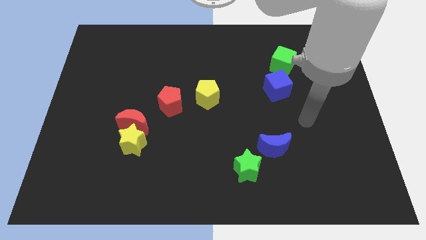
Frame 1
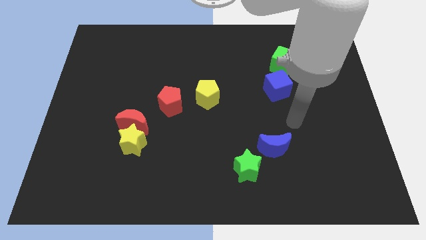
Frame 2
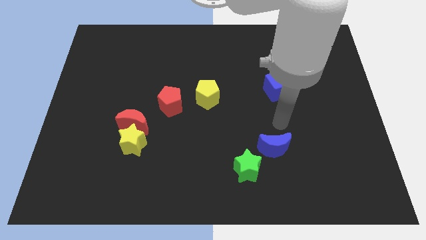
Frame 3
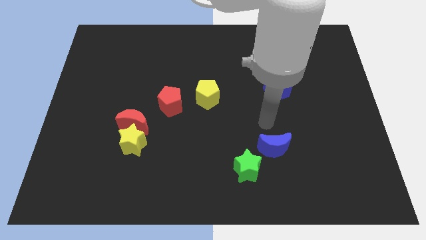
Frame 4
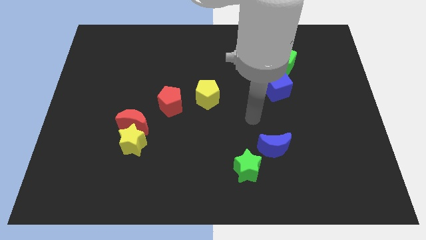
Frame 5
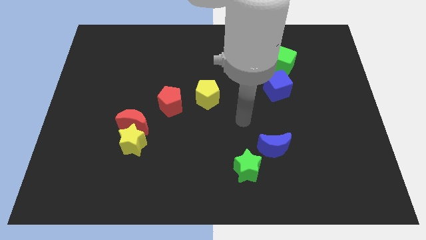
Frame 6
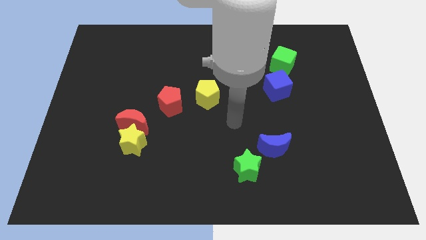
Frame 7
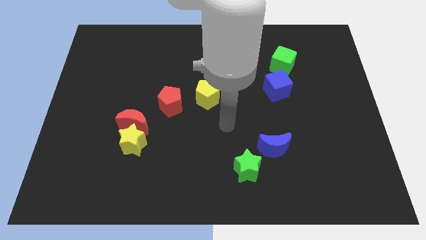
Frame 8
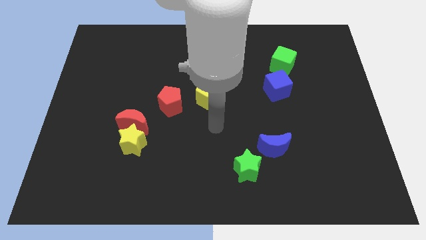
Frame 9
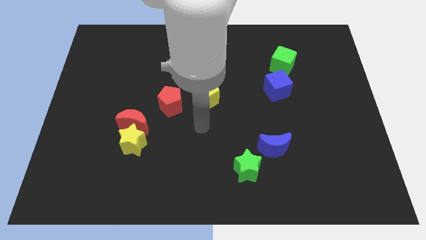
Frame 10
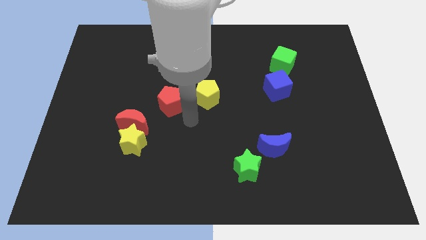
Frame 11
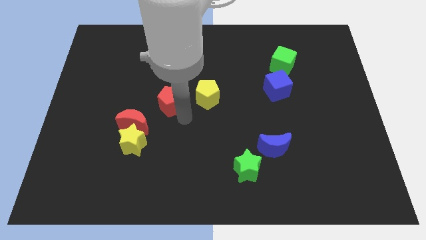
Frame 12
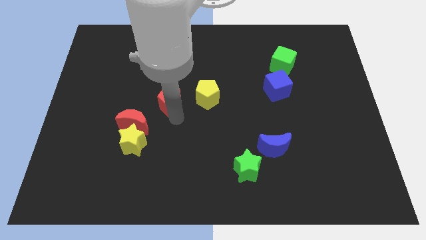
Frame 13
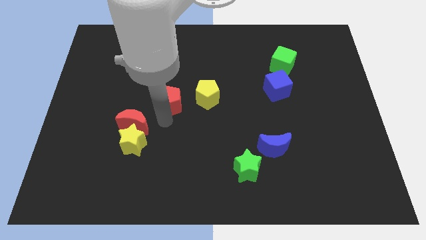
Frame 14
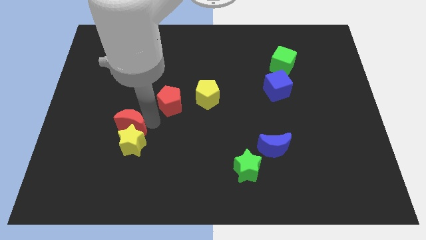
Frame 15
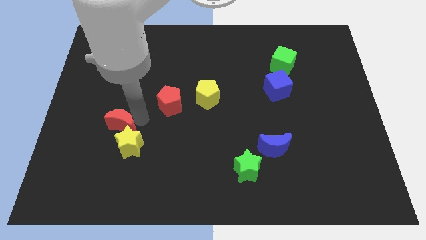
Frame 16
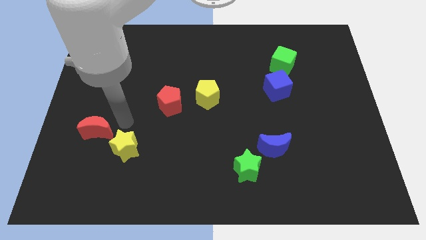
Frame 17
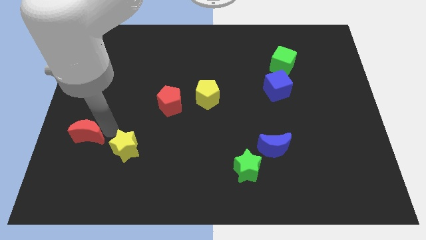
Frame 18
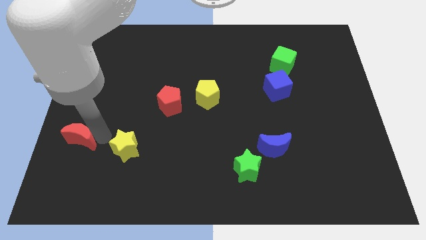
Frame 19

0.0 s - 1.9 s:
pull the yellow star apart from the red moon

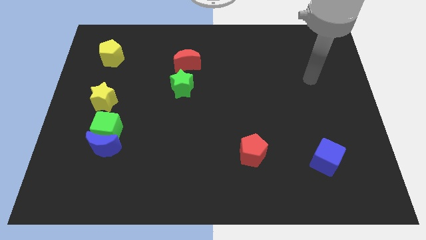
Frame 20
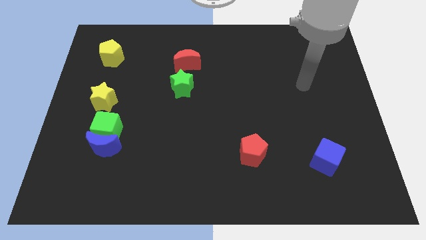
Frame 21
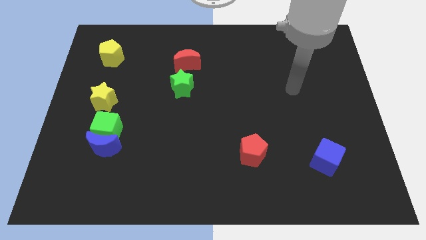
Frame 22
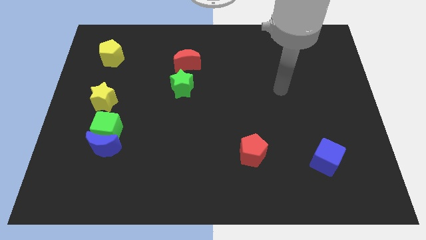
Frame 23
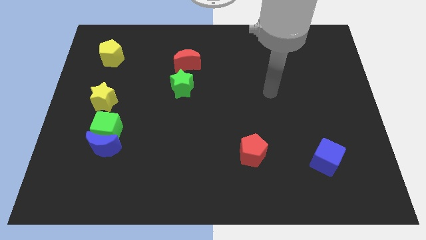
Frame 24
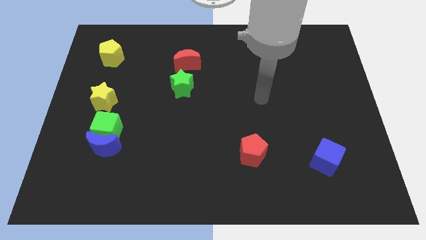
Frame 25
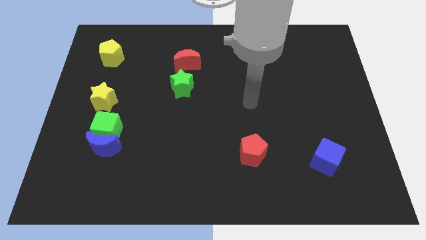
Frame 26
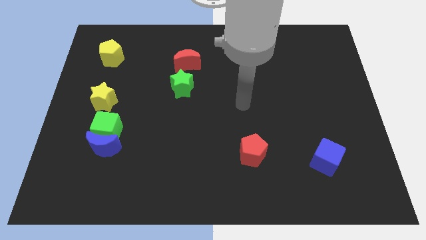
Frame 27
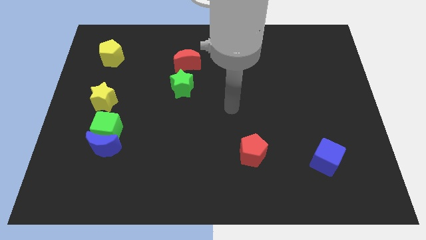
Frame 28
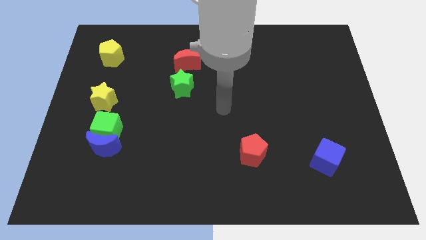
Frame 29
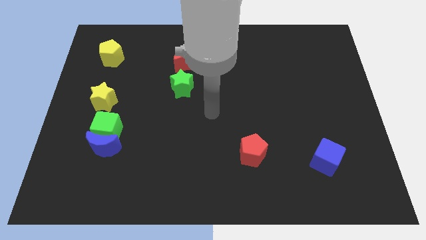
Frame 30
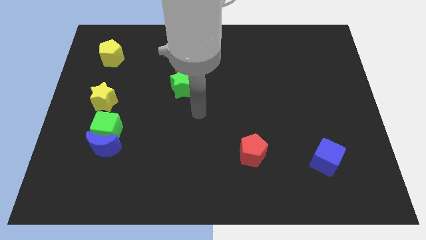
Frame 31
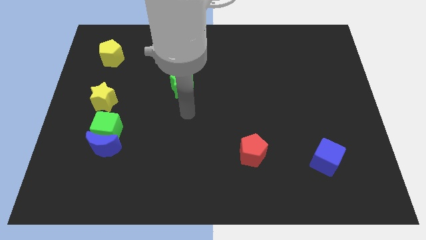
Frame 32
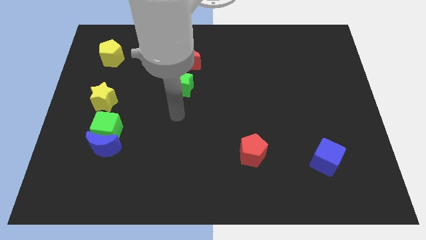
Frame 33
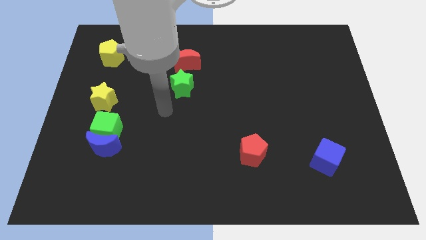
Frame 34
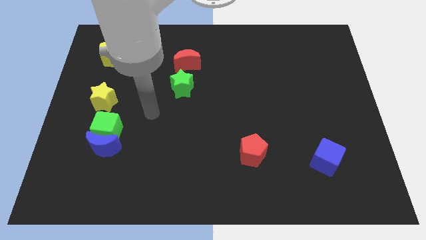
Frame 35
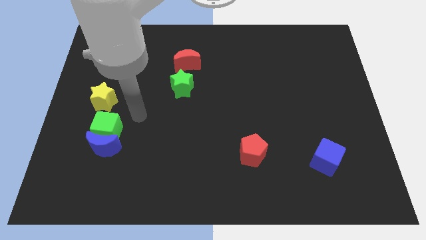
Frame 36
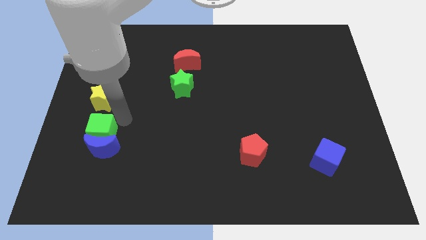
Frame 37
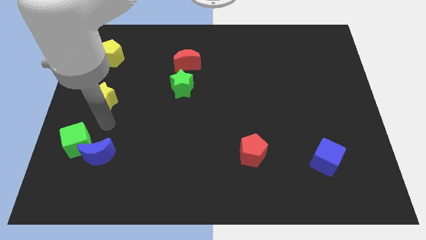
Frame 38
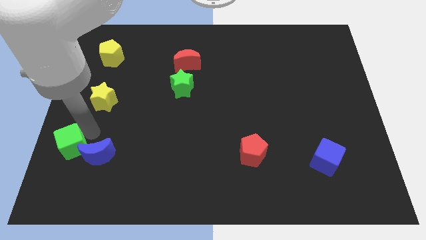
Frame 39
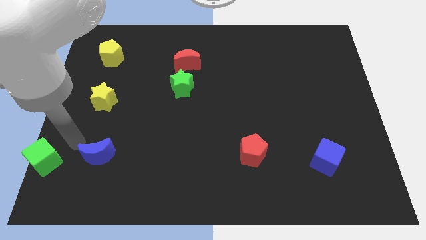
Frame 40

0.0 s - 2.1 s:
separate the blue moon from the green cube

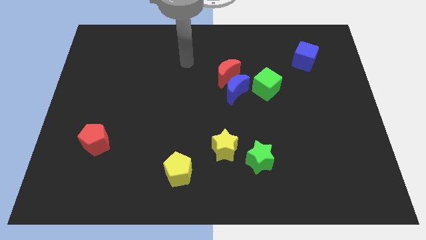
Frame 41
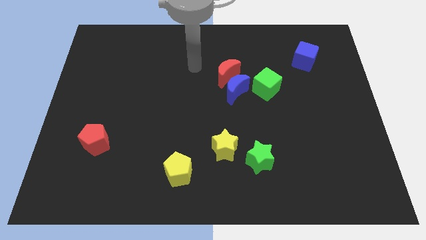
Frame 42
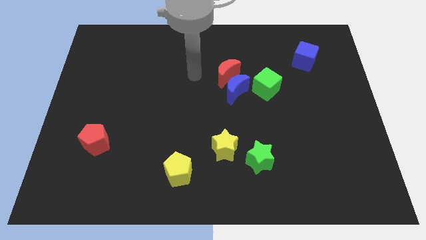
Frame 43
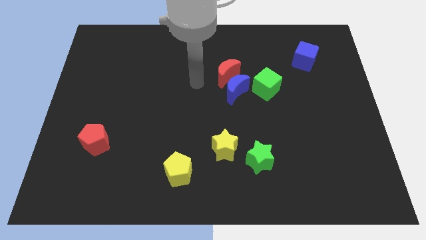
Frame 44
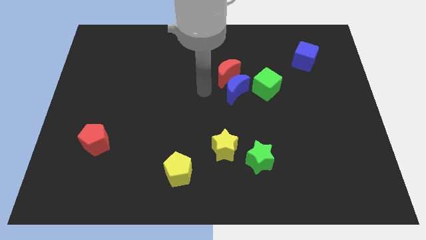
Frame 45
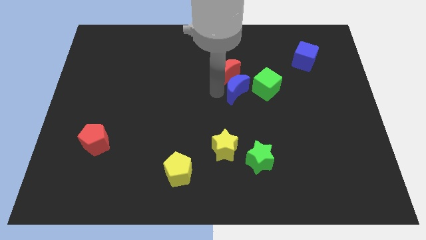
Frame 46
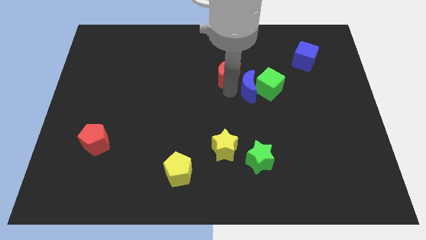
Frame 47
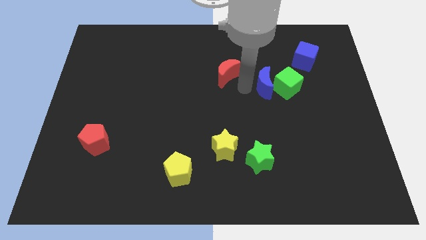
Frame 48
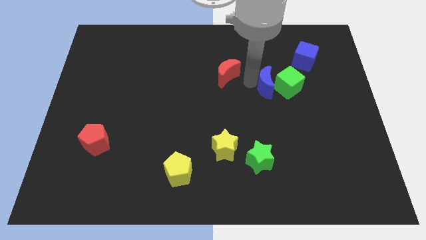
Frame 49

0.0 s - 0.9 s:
separate the red moon from the blue moon

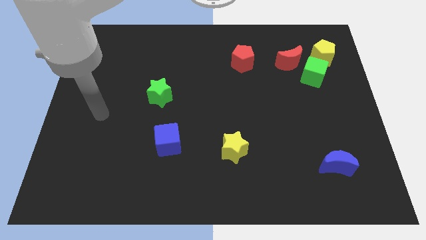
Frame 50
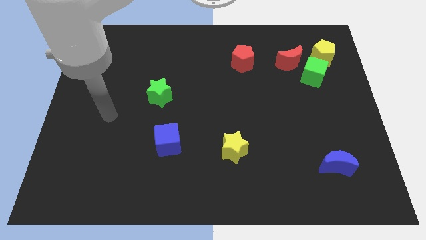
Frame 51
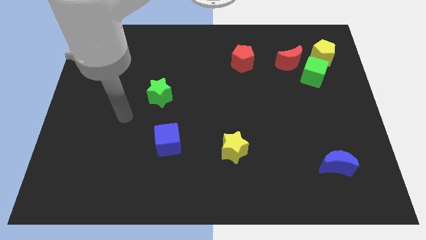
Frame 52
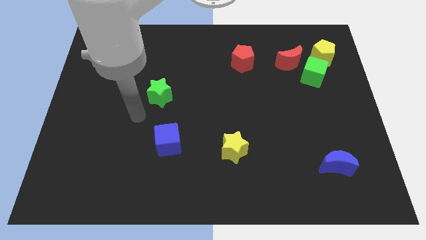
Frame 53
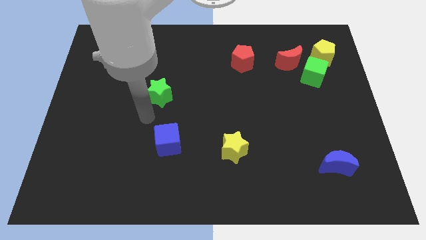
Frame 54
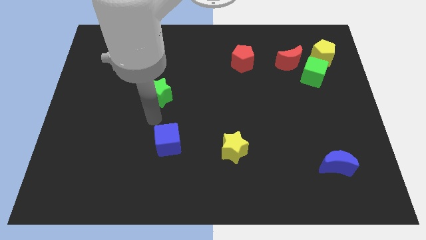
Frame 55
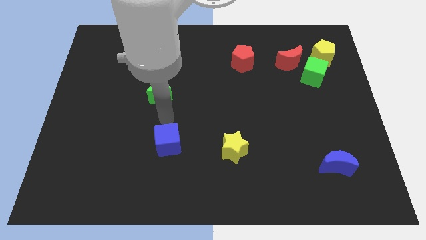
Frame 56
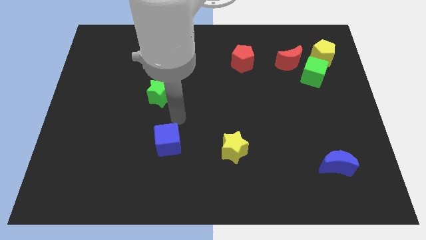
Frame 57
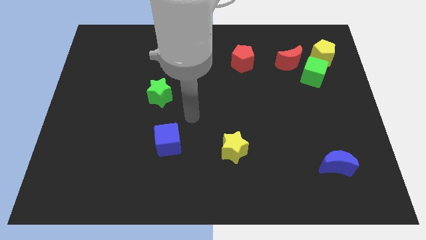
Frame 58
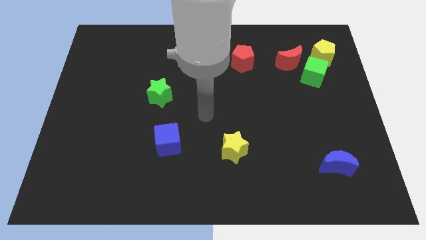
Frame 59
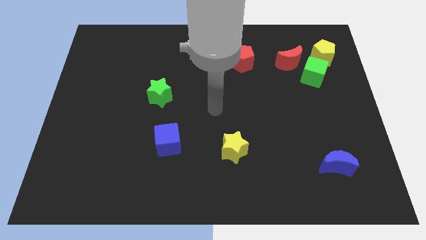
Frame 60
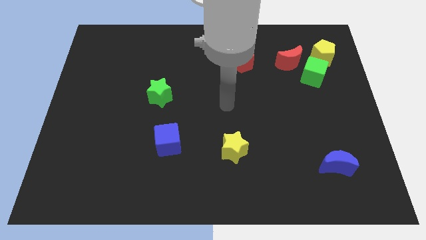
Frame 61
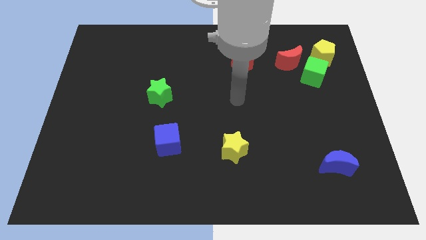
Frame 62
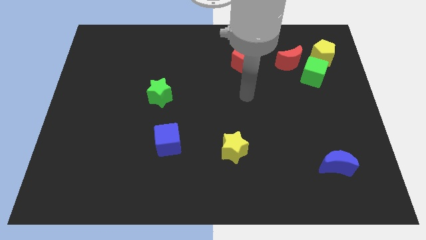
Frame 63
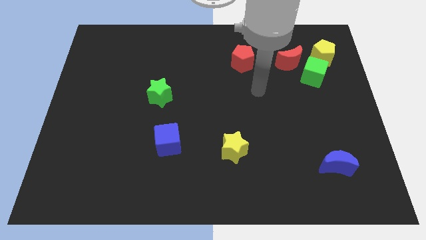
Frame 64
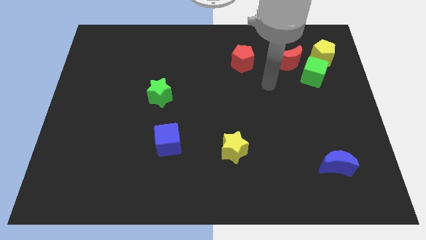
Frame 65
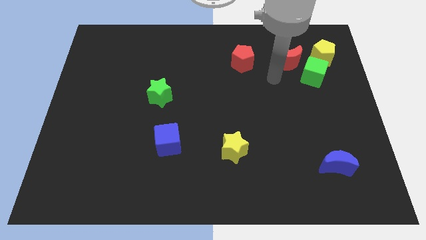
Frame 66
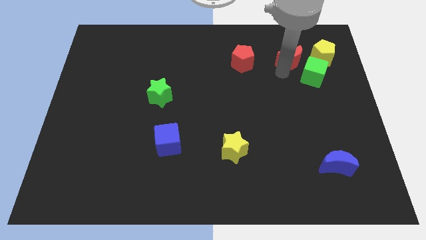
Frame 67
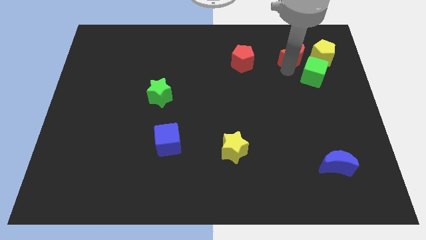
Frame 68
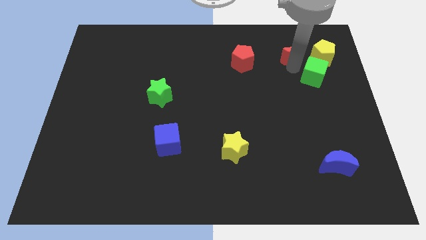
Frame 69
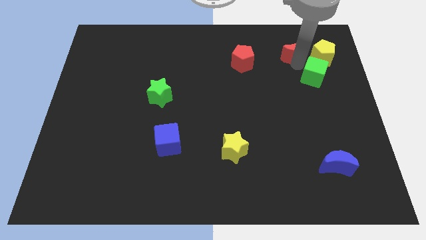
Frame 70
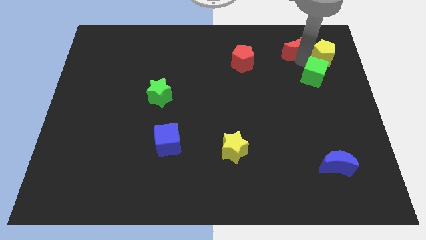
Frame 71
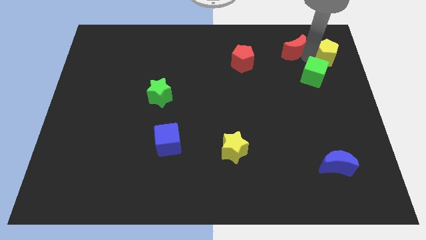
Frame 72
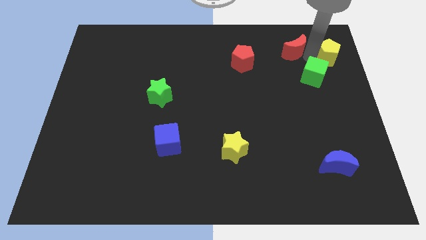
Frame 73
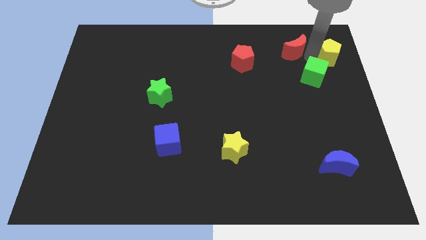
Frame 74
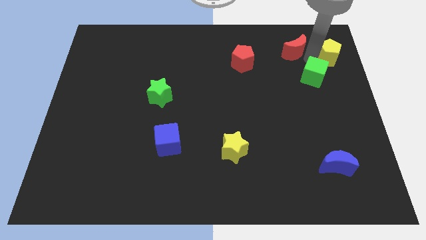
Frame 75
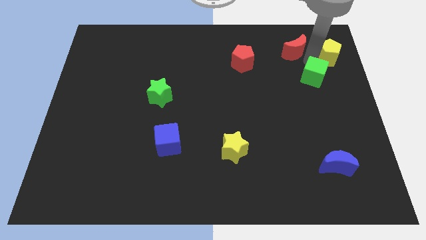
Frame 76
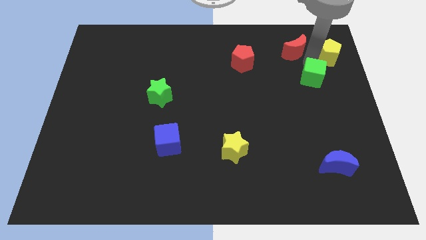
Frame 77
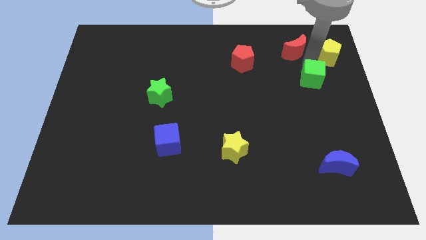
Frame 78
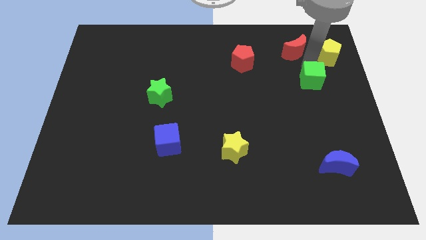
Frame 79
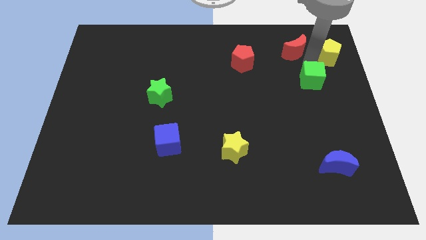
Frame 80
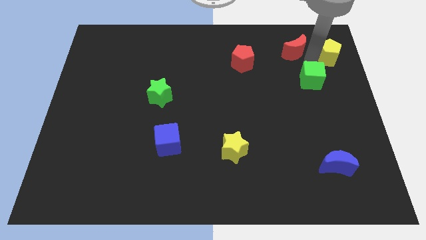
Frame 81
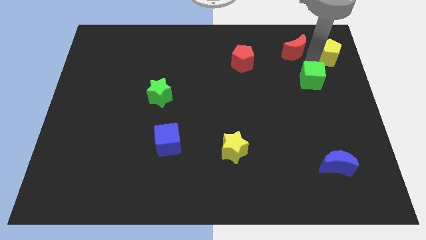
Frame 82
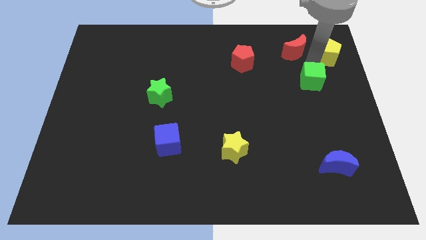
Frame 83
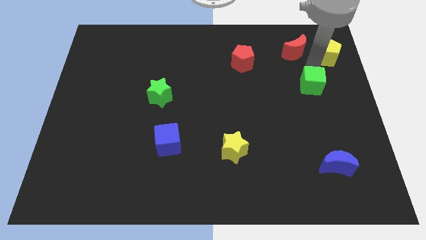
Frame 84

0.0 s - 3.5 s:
pull the green cube apart from the red moon and yellow pentagon

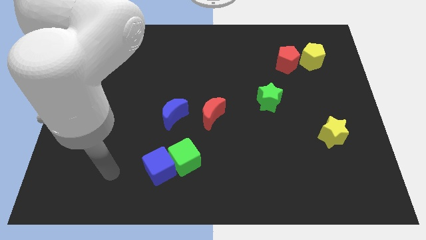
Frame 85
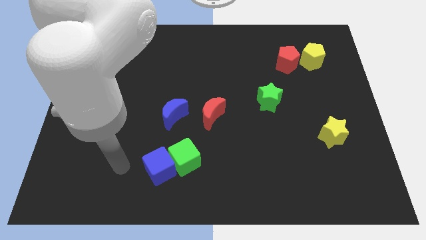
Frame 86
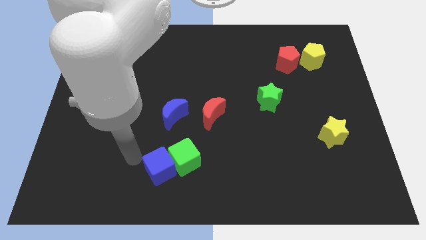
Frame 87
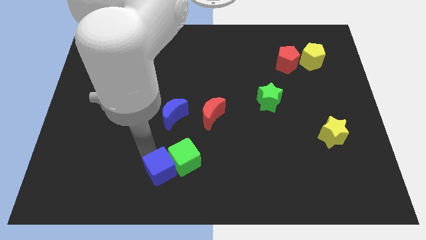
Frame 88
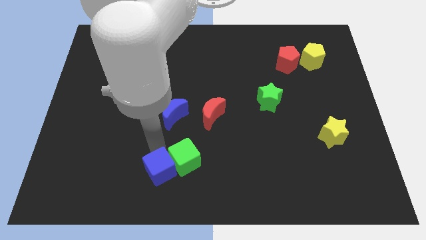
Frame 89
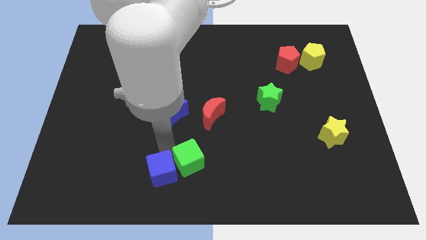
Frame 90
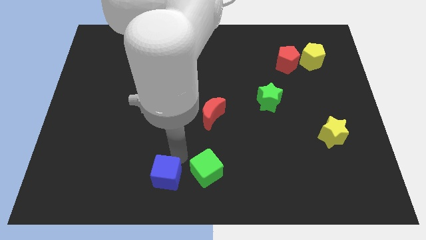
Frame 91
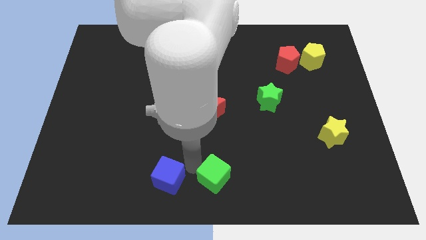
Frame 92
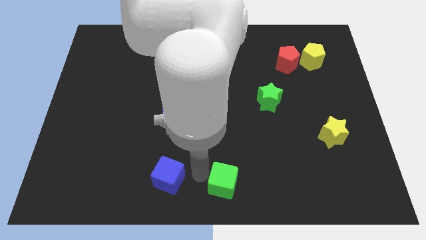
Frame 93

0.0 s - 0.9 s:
pull the blue cube apart from the green cube
